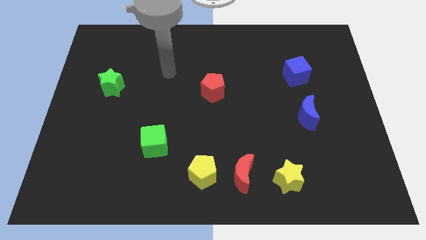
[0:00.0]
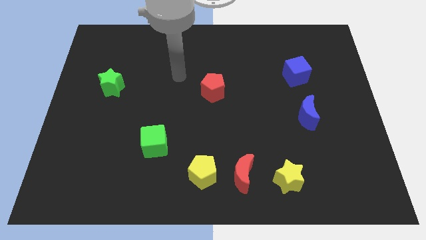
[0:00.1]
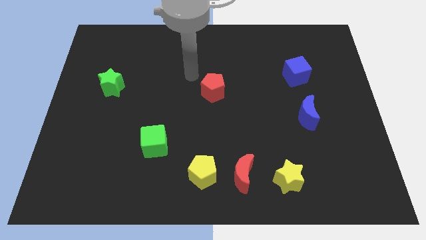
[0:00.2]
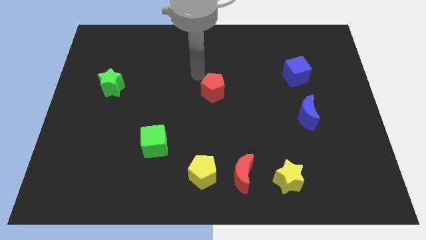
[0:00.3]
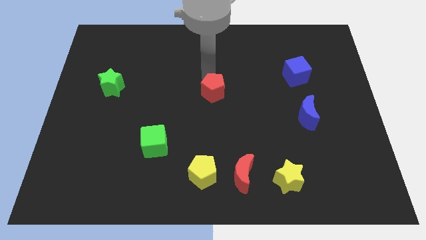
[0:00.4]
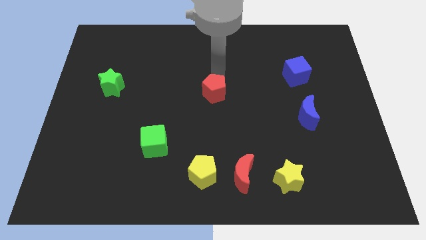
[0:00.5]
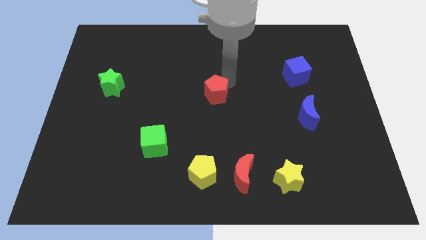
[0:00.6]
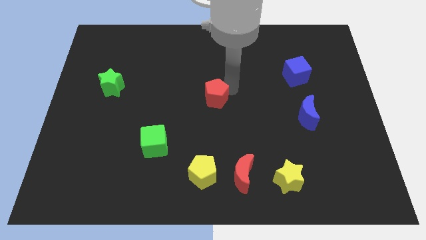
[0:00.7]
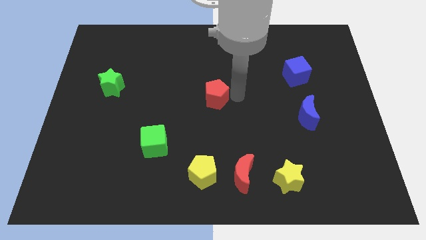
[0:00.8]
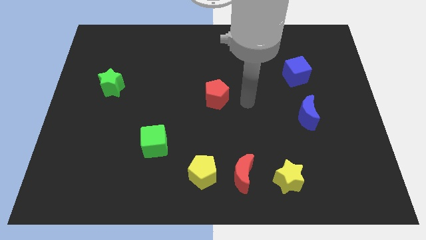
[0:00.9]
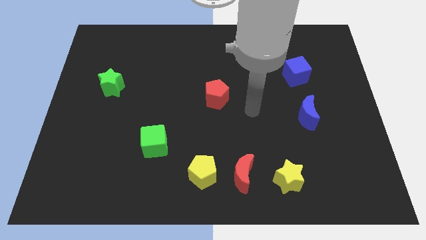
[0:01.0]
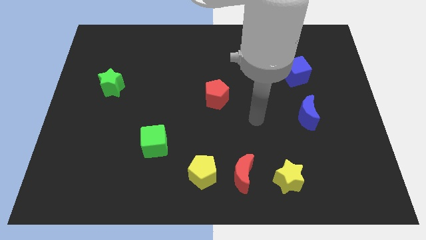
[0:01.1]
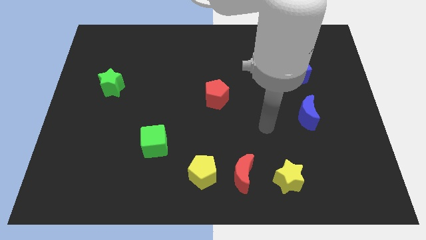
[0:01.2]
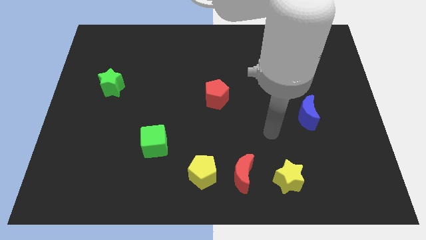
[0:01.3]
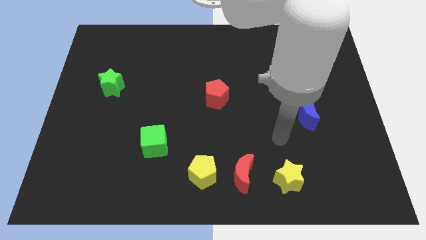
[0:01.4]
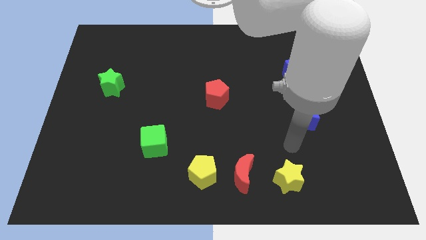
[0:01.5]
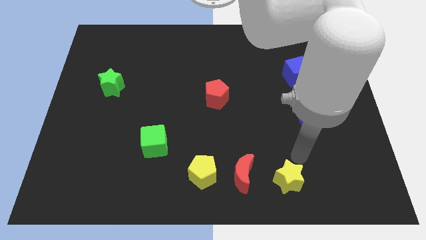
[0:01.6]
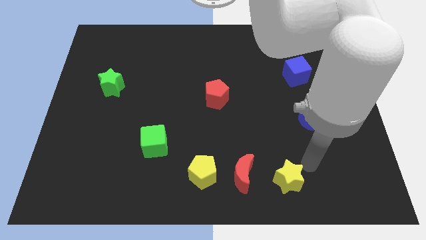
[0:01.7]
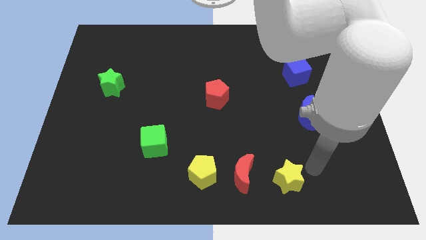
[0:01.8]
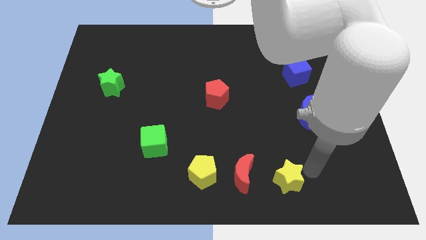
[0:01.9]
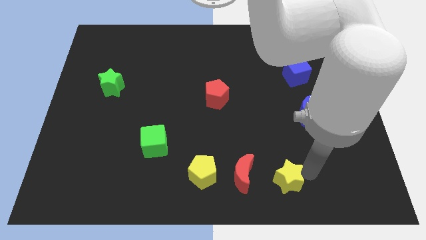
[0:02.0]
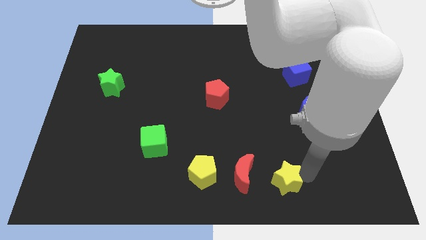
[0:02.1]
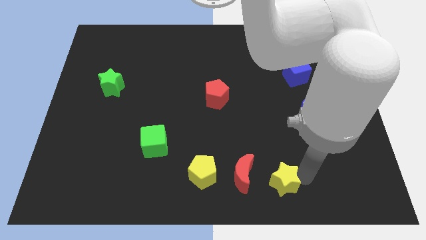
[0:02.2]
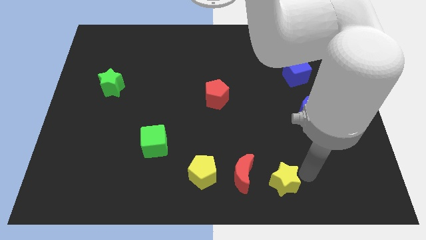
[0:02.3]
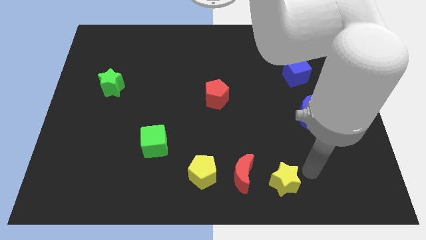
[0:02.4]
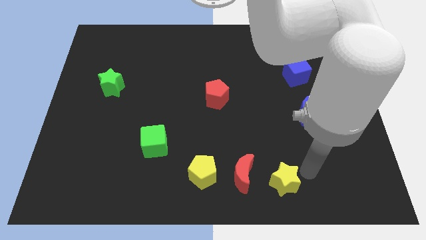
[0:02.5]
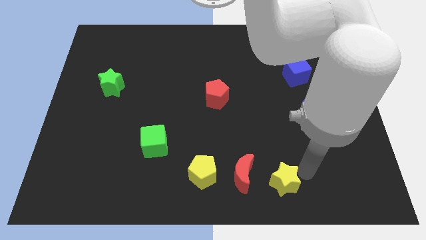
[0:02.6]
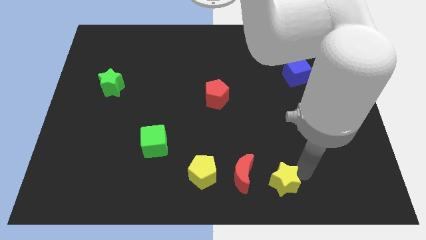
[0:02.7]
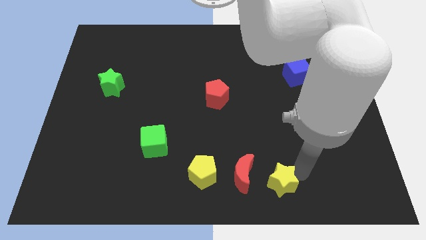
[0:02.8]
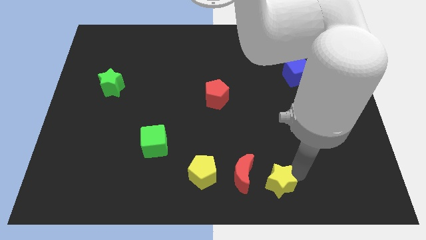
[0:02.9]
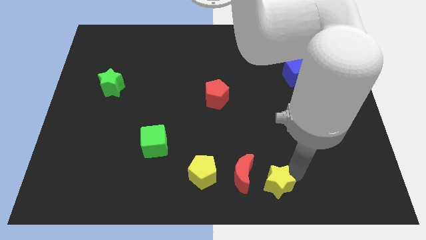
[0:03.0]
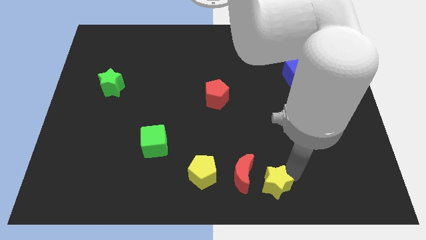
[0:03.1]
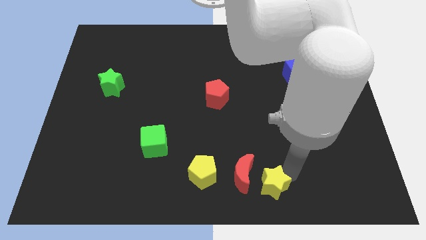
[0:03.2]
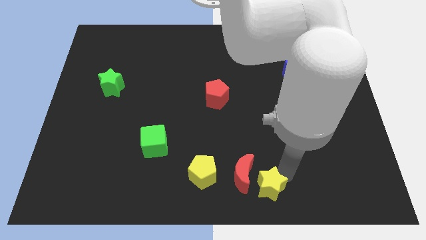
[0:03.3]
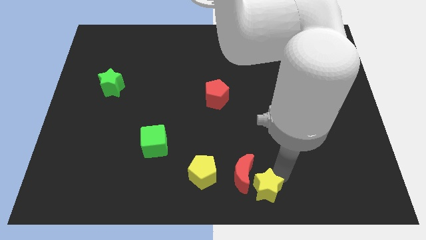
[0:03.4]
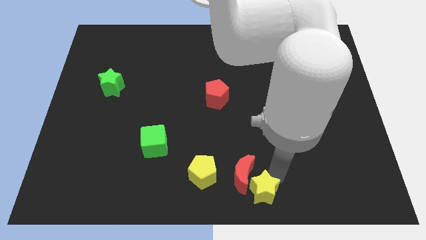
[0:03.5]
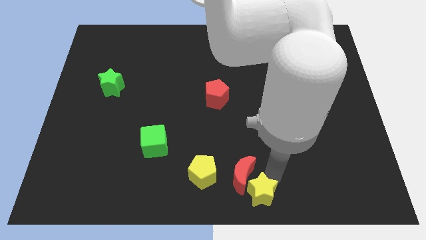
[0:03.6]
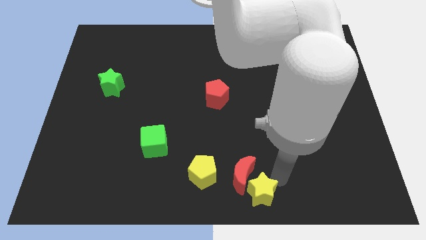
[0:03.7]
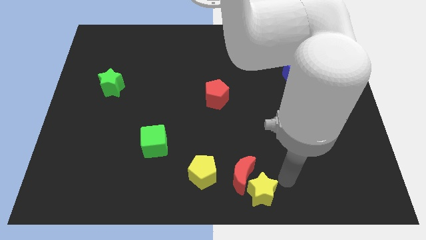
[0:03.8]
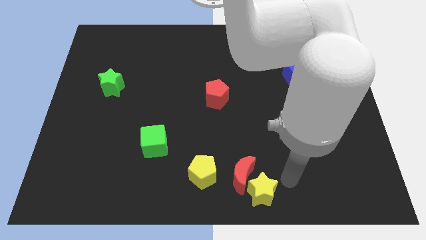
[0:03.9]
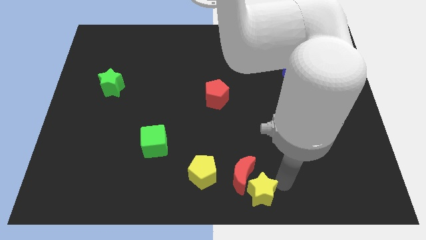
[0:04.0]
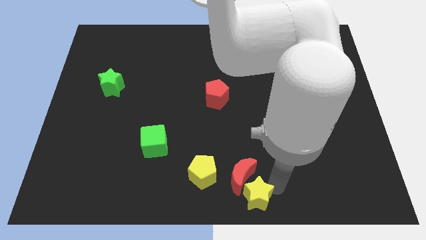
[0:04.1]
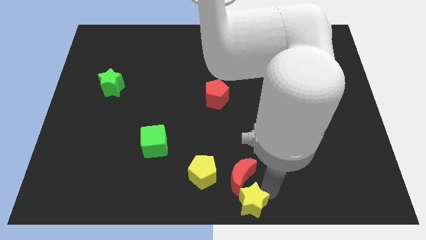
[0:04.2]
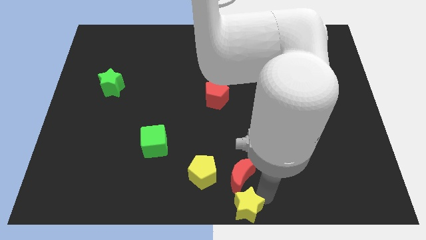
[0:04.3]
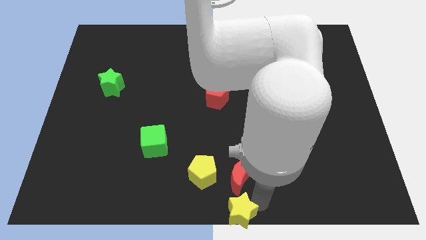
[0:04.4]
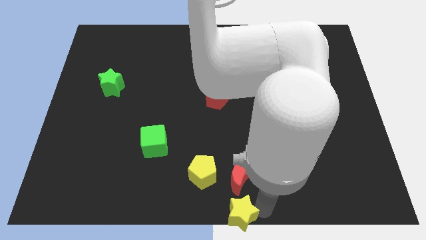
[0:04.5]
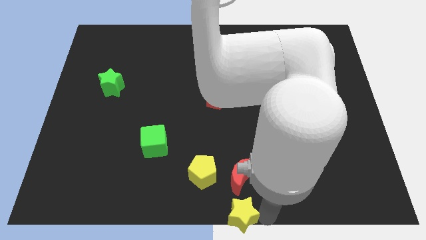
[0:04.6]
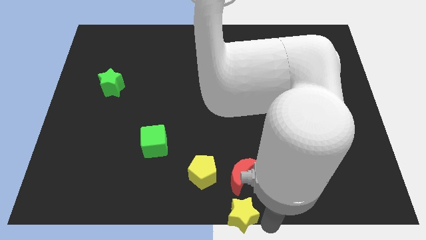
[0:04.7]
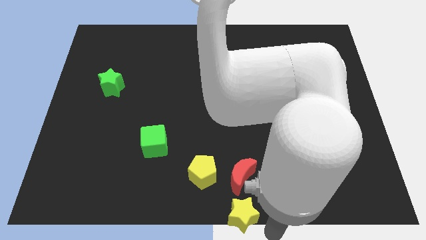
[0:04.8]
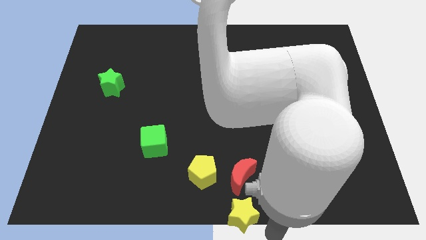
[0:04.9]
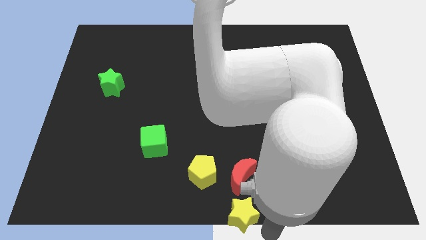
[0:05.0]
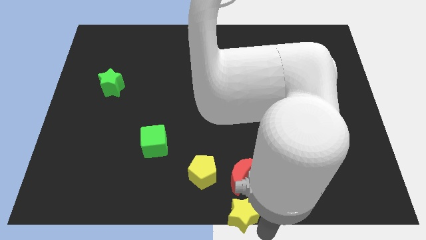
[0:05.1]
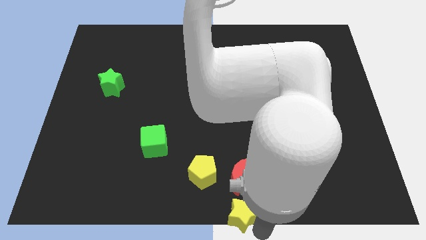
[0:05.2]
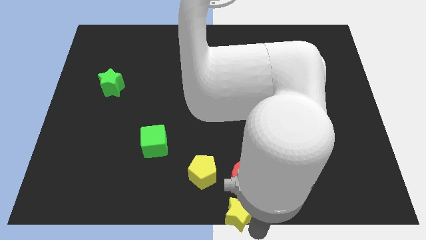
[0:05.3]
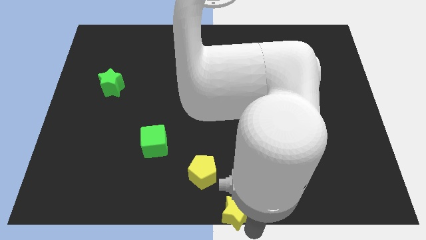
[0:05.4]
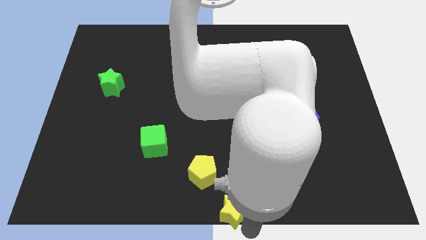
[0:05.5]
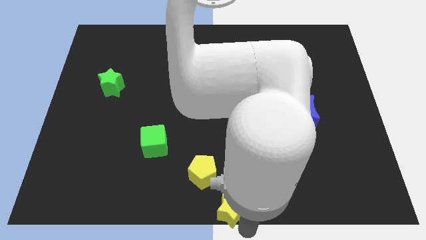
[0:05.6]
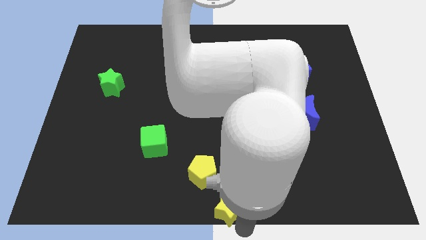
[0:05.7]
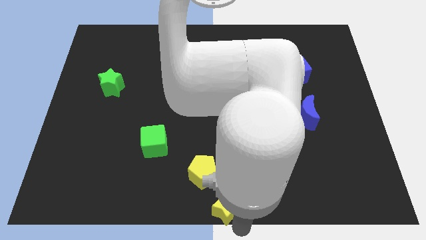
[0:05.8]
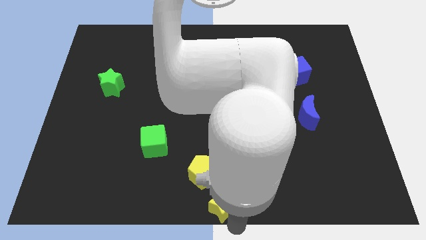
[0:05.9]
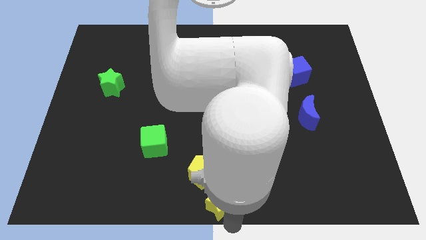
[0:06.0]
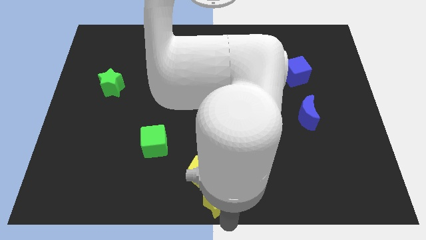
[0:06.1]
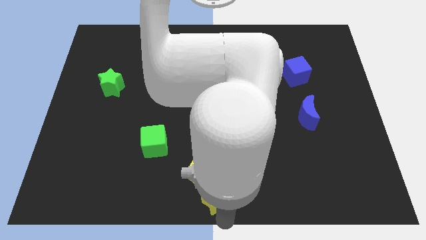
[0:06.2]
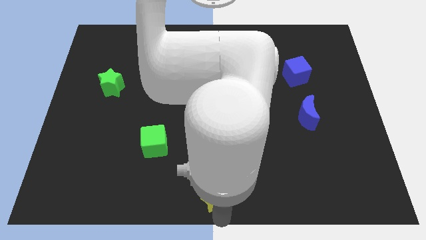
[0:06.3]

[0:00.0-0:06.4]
move the yellow star left of the red moon

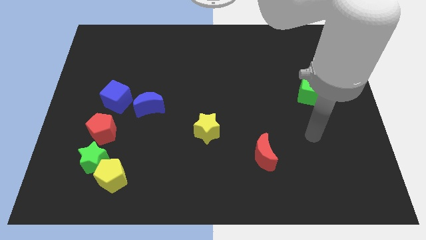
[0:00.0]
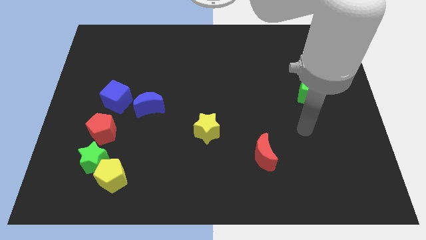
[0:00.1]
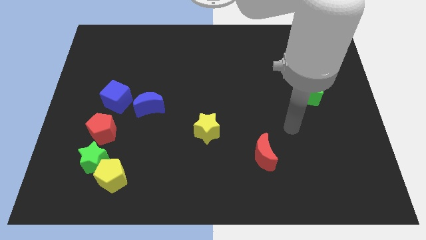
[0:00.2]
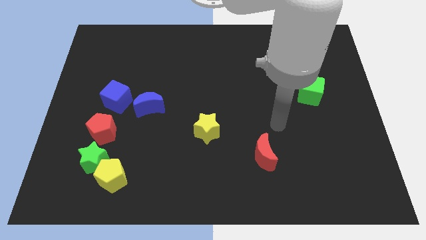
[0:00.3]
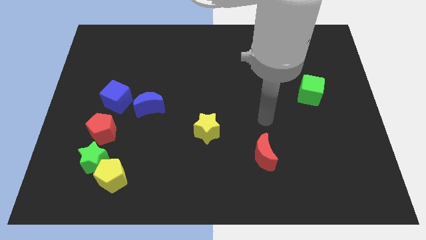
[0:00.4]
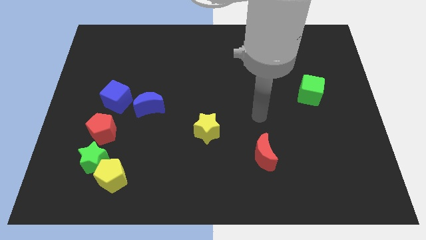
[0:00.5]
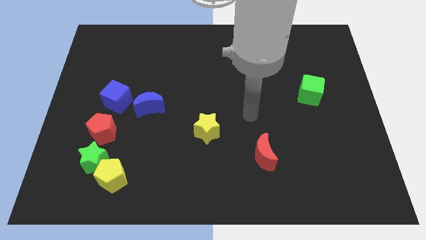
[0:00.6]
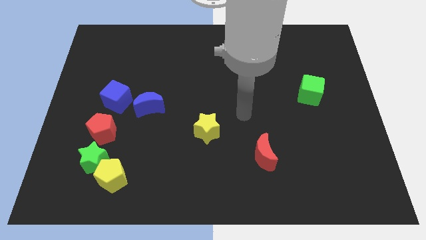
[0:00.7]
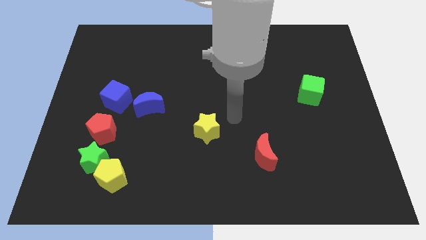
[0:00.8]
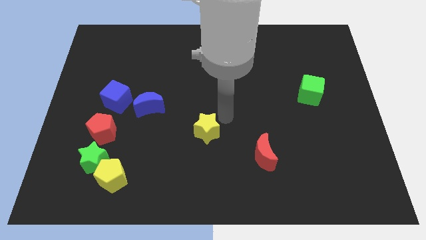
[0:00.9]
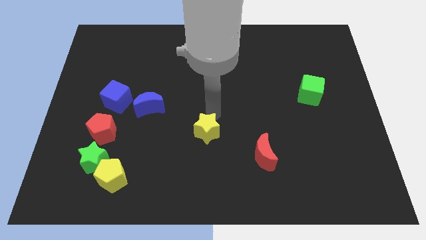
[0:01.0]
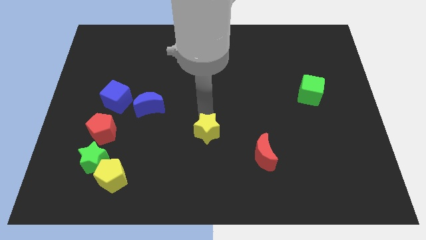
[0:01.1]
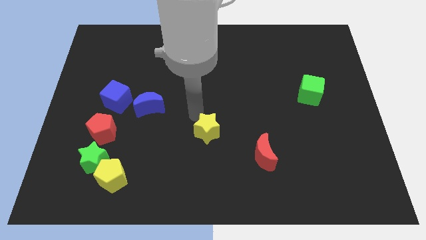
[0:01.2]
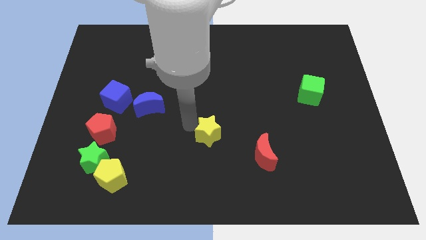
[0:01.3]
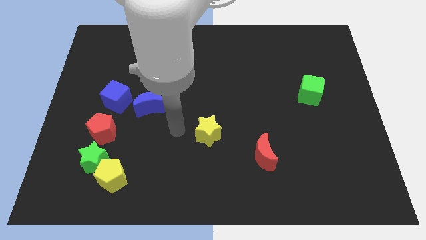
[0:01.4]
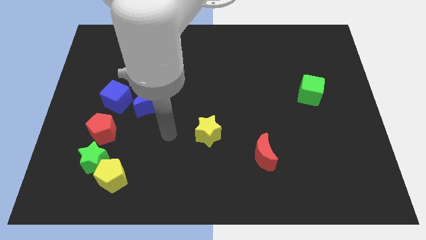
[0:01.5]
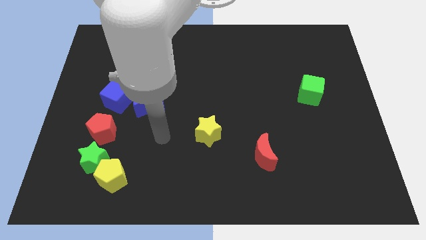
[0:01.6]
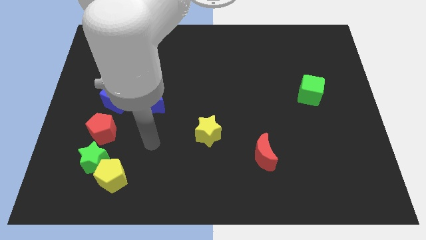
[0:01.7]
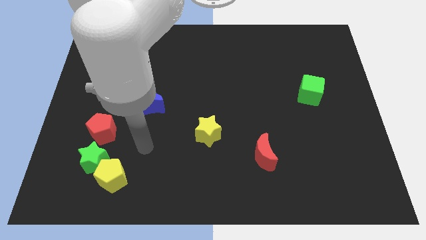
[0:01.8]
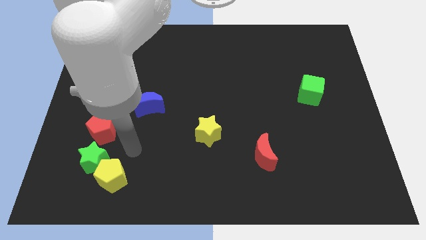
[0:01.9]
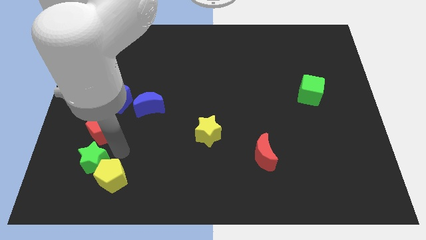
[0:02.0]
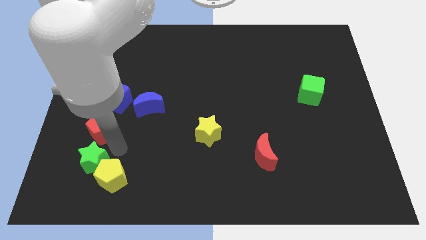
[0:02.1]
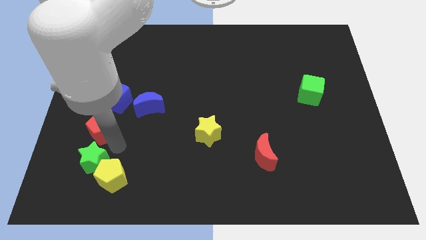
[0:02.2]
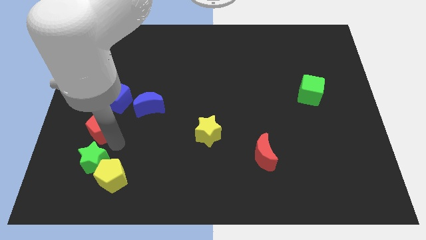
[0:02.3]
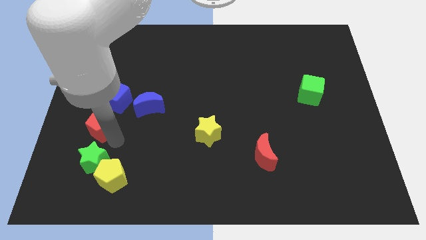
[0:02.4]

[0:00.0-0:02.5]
move the red pentagon to the bottom left of the blue cube
